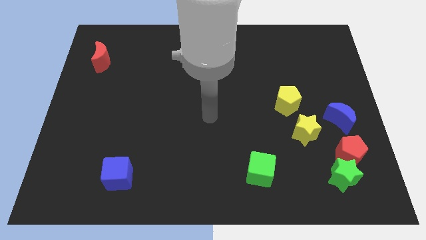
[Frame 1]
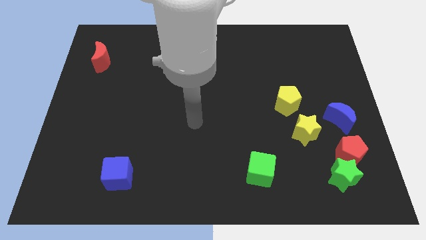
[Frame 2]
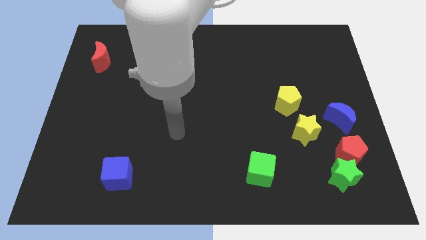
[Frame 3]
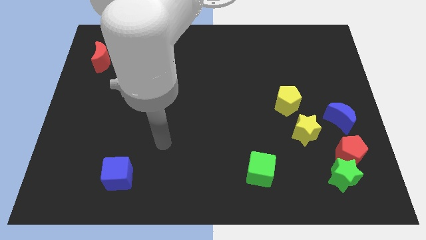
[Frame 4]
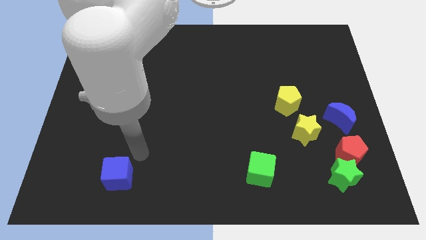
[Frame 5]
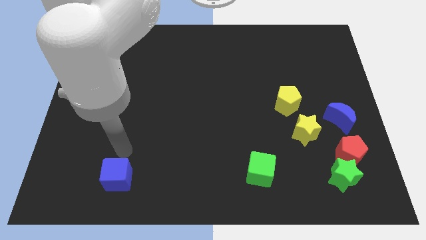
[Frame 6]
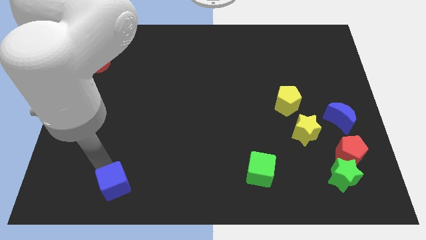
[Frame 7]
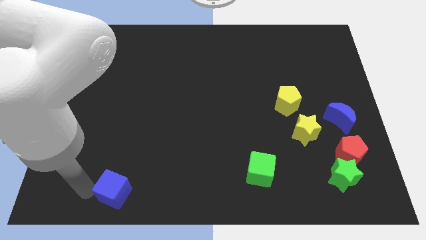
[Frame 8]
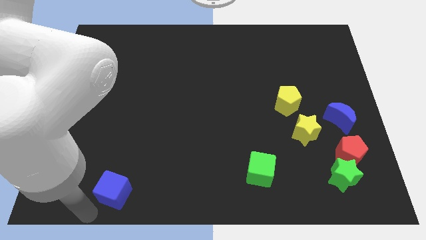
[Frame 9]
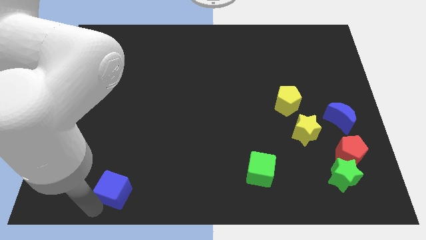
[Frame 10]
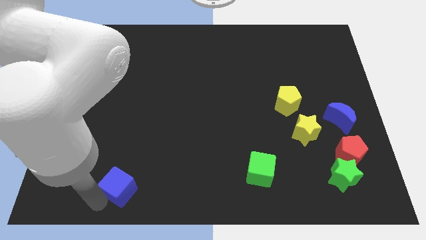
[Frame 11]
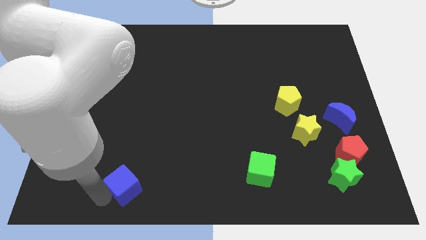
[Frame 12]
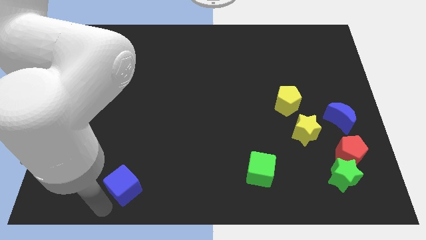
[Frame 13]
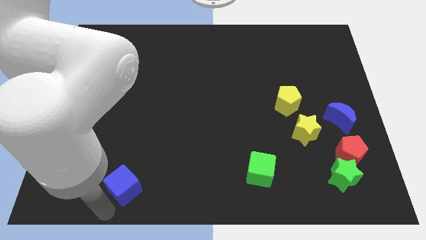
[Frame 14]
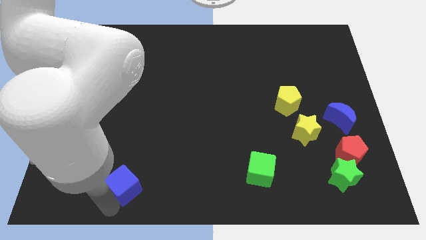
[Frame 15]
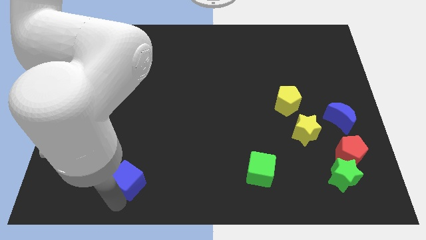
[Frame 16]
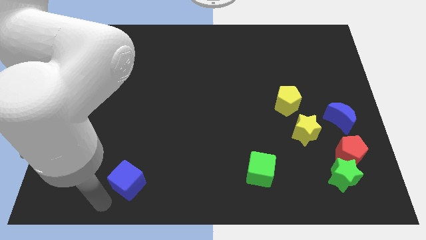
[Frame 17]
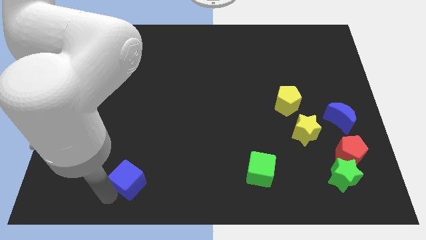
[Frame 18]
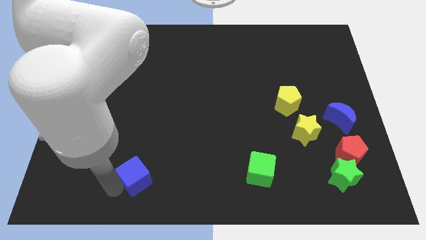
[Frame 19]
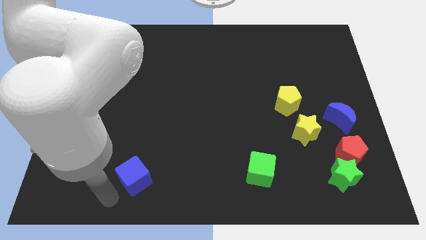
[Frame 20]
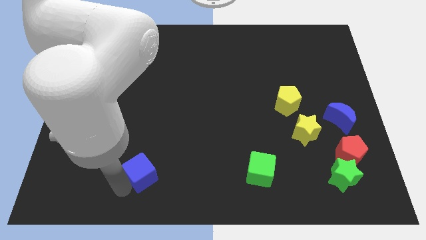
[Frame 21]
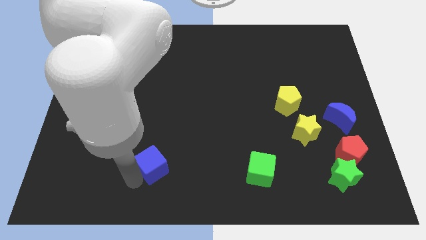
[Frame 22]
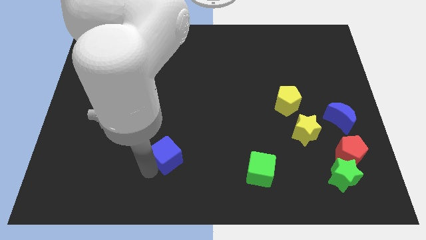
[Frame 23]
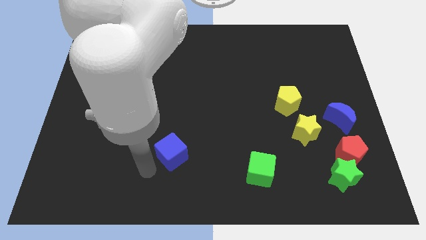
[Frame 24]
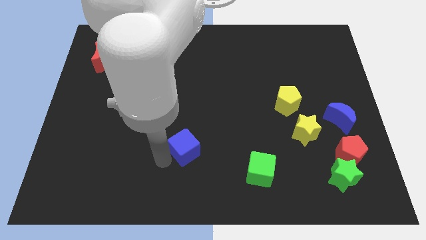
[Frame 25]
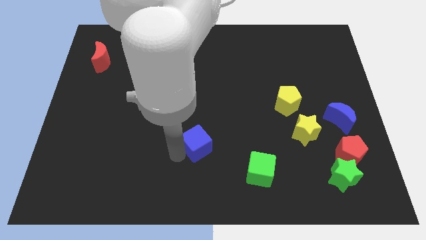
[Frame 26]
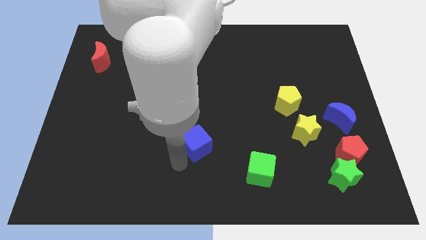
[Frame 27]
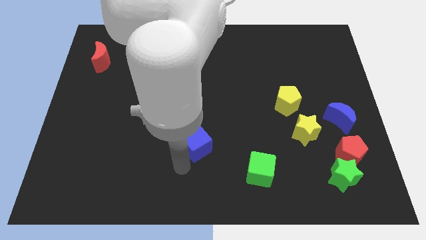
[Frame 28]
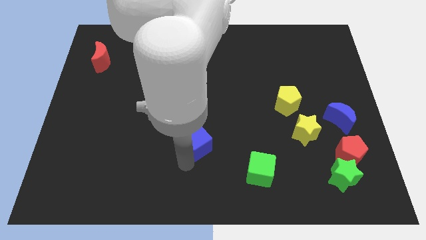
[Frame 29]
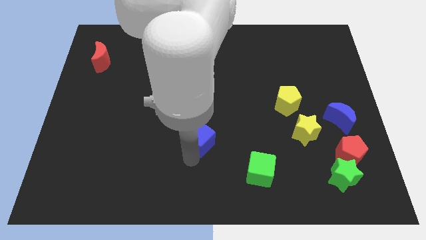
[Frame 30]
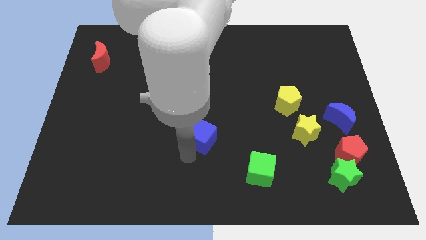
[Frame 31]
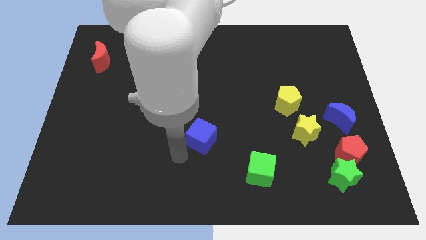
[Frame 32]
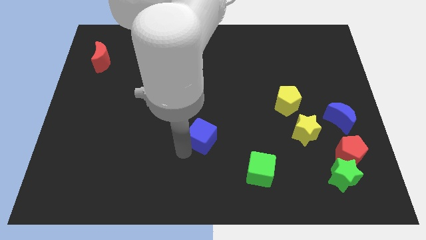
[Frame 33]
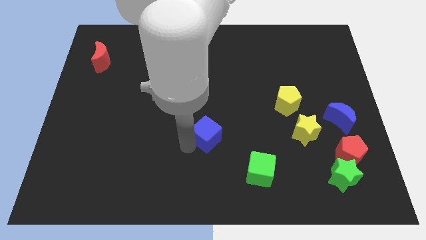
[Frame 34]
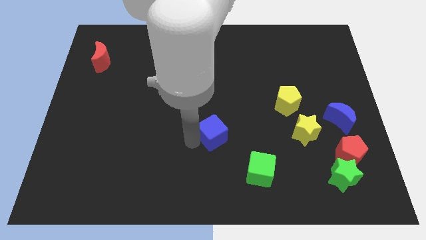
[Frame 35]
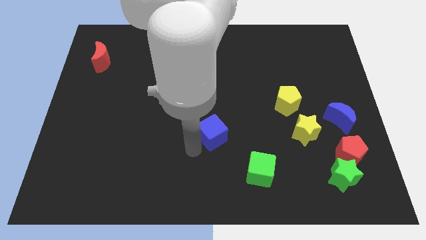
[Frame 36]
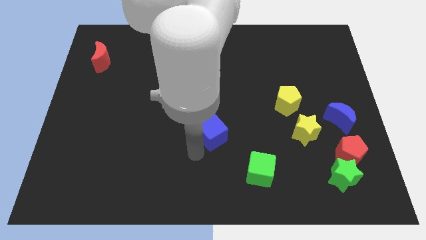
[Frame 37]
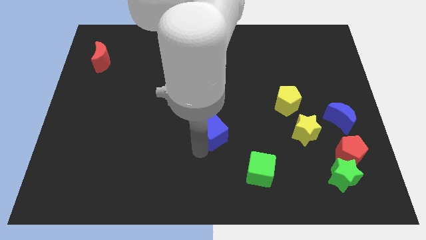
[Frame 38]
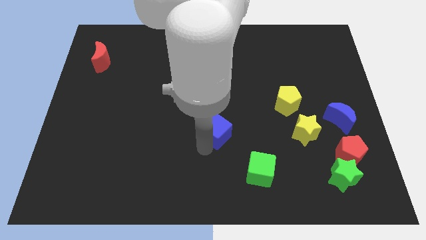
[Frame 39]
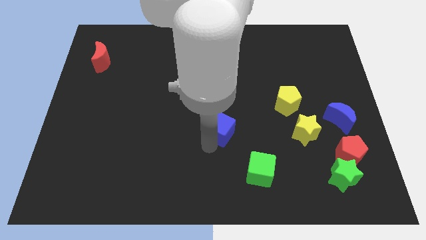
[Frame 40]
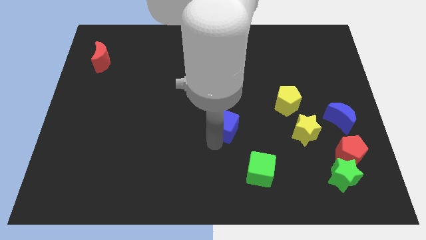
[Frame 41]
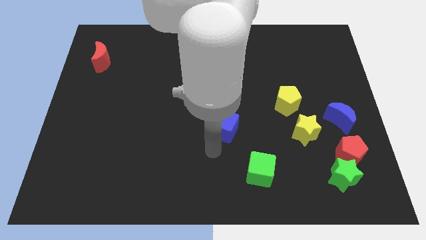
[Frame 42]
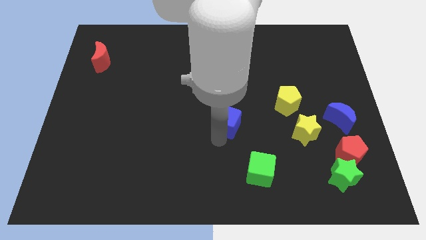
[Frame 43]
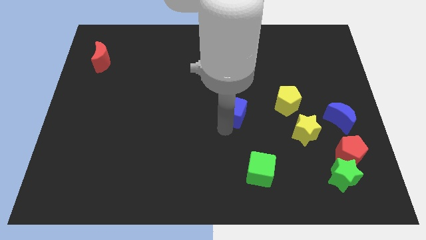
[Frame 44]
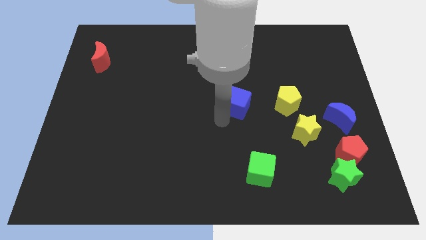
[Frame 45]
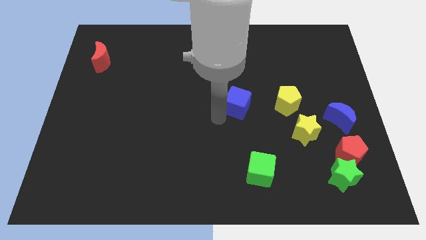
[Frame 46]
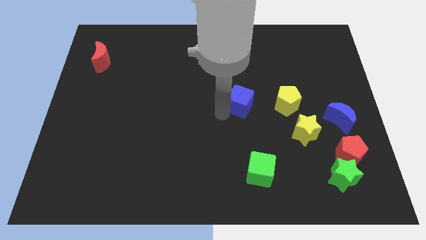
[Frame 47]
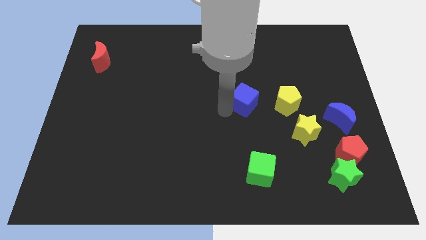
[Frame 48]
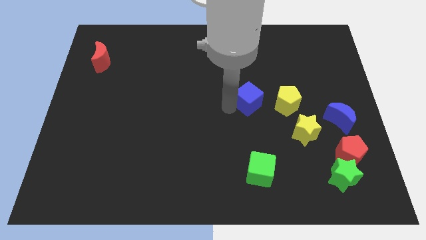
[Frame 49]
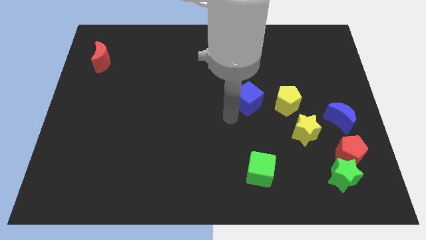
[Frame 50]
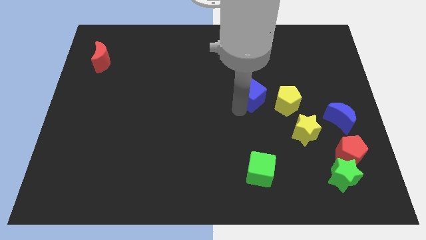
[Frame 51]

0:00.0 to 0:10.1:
push the blue cube to the top left side of the yellow pentagon

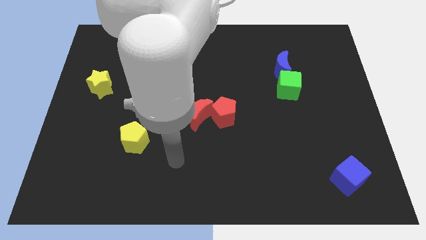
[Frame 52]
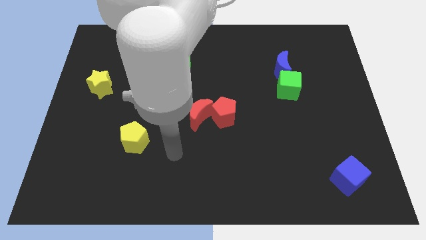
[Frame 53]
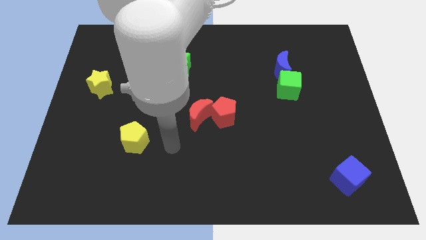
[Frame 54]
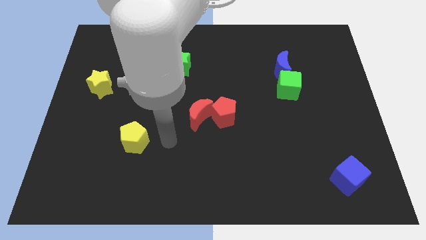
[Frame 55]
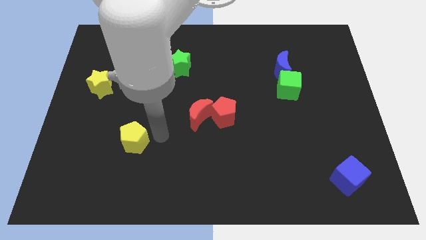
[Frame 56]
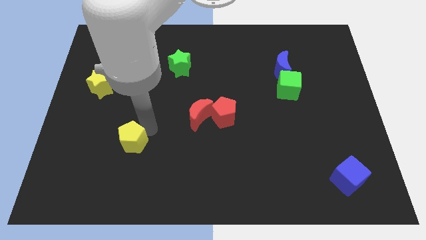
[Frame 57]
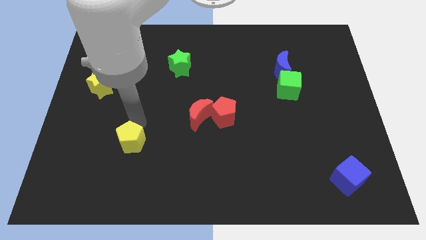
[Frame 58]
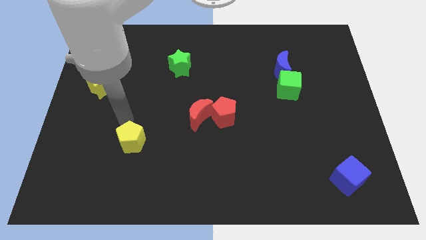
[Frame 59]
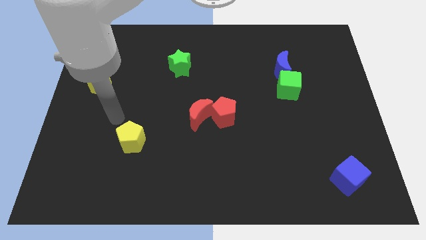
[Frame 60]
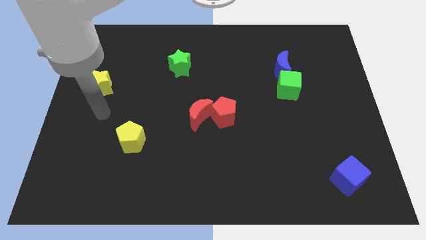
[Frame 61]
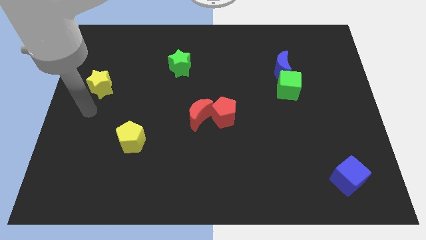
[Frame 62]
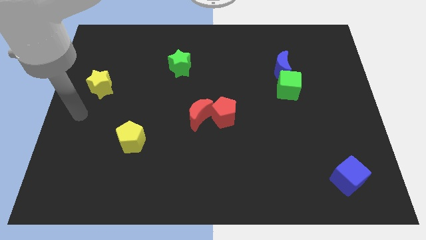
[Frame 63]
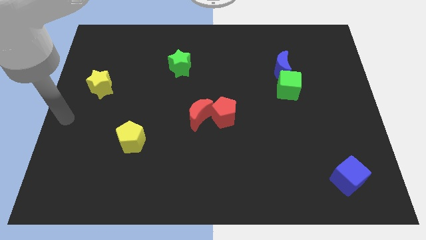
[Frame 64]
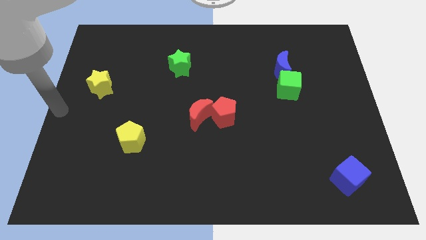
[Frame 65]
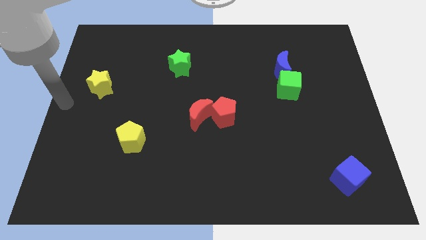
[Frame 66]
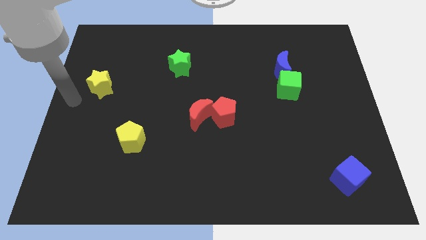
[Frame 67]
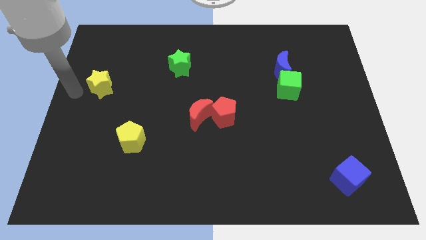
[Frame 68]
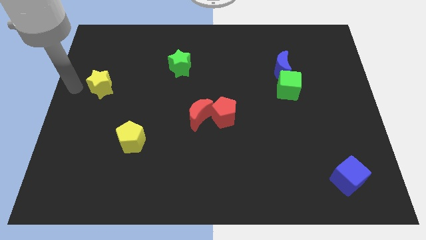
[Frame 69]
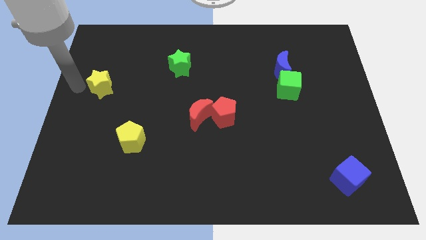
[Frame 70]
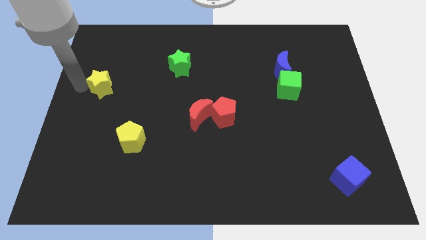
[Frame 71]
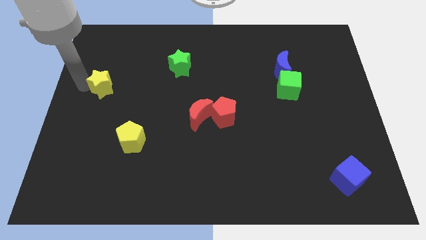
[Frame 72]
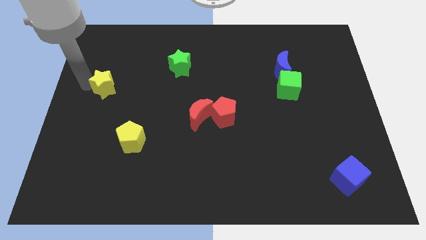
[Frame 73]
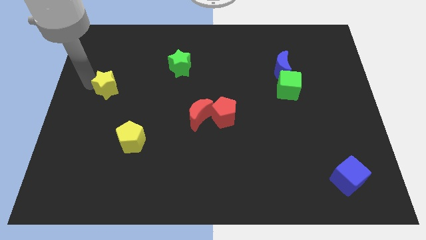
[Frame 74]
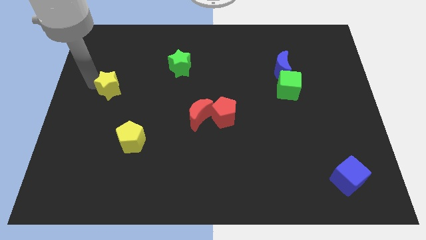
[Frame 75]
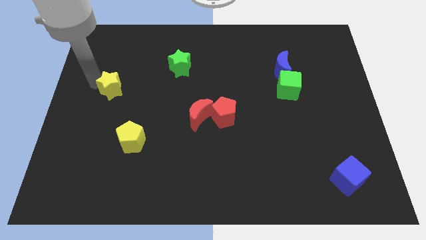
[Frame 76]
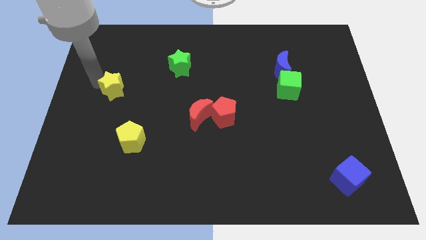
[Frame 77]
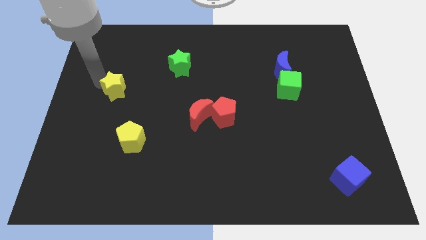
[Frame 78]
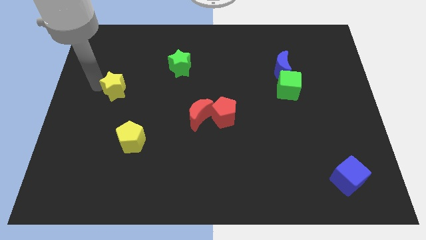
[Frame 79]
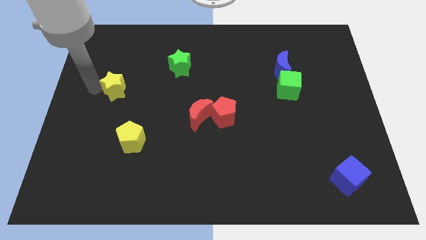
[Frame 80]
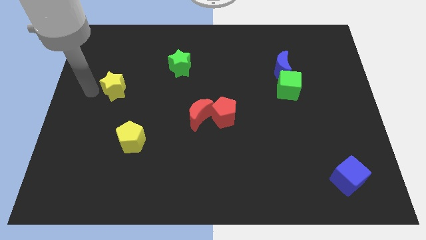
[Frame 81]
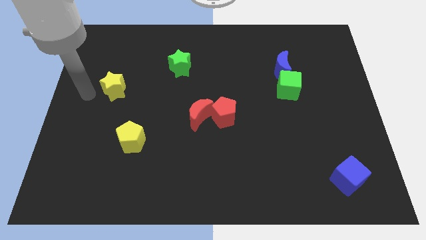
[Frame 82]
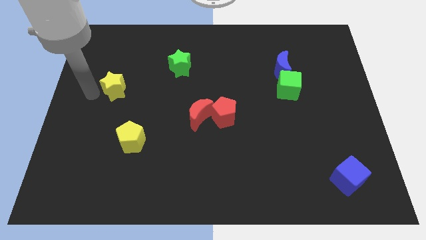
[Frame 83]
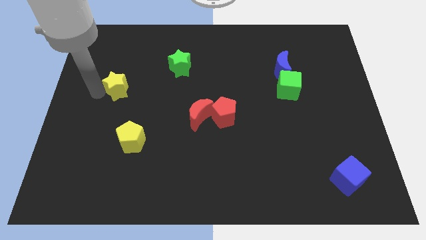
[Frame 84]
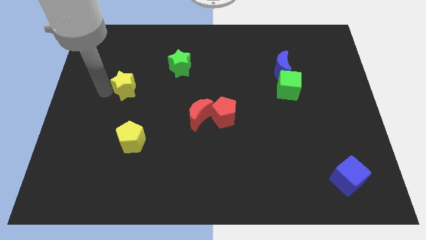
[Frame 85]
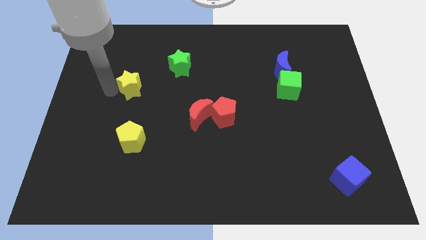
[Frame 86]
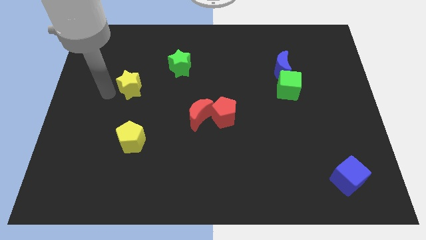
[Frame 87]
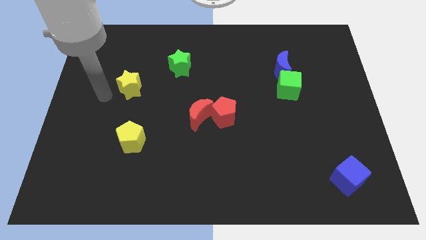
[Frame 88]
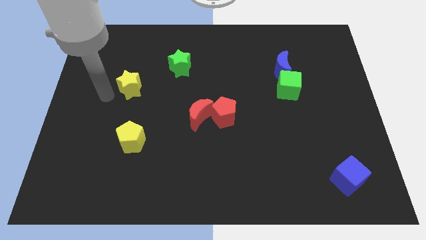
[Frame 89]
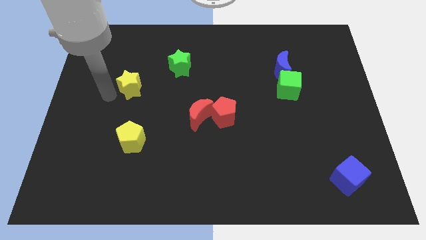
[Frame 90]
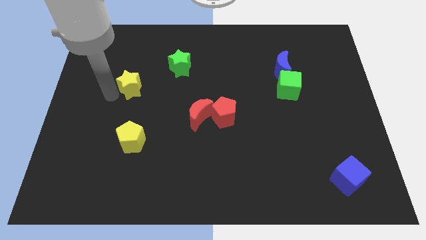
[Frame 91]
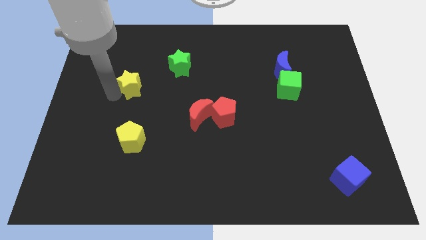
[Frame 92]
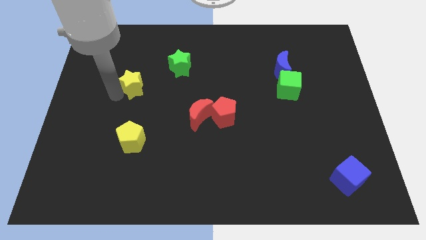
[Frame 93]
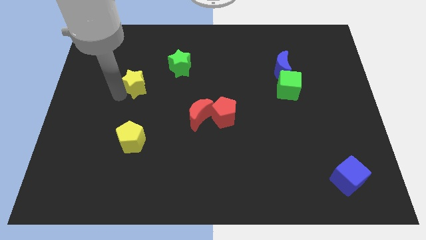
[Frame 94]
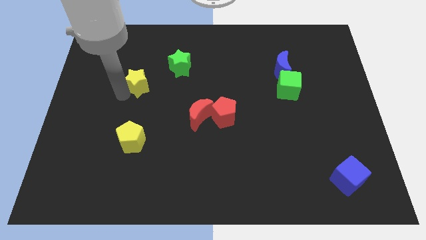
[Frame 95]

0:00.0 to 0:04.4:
put the yellow star to the bottom left of the green star
